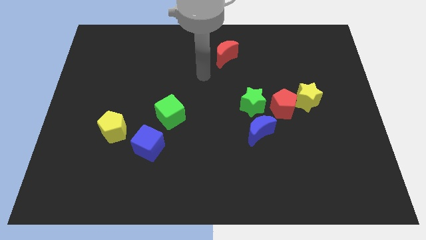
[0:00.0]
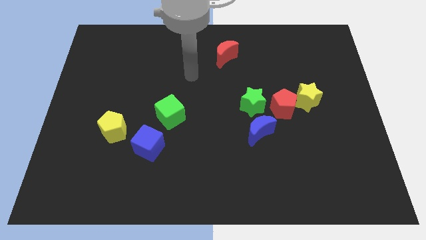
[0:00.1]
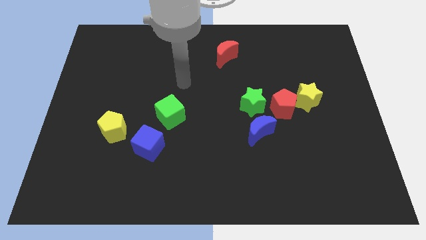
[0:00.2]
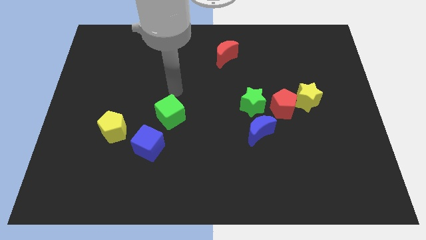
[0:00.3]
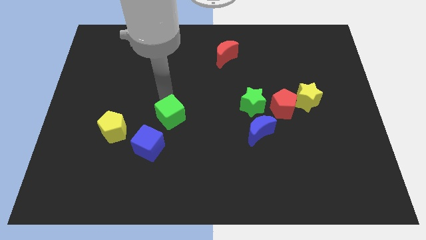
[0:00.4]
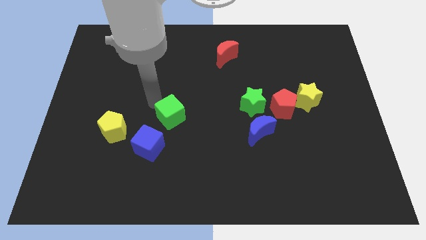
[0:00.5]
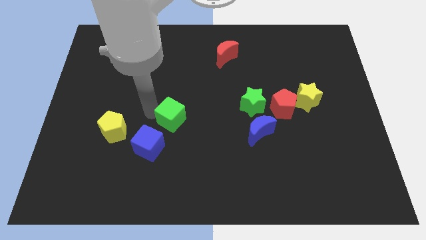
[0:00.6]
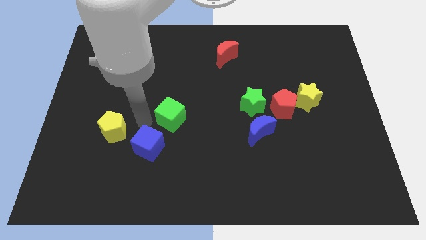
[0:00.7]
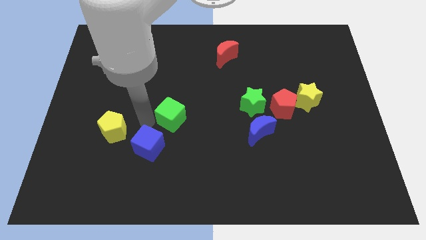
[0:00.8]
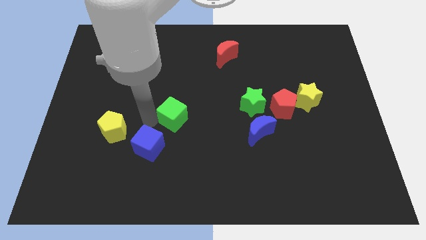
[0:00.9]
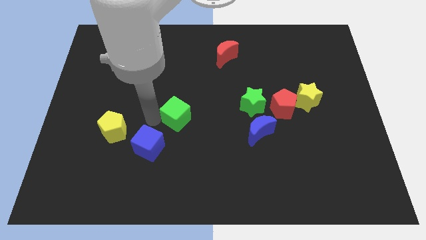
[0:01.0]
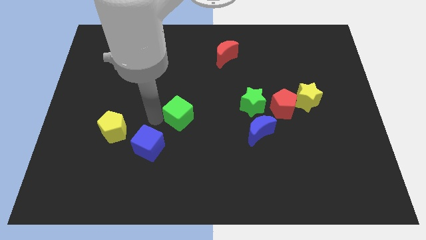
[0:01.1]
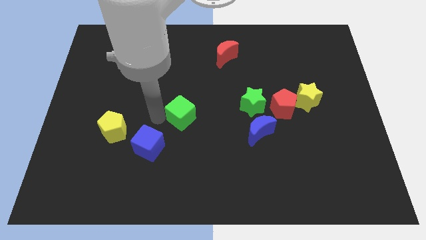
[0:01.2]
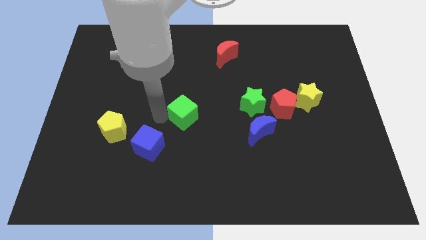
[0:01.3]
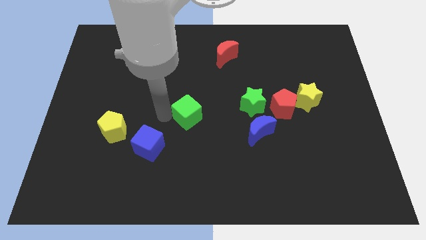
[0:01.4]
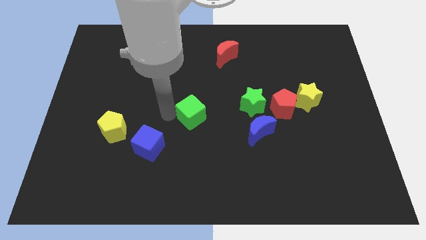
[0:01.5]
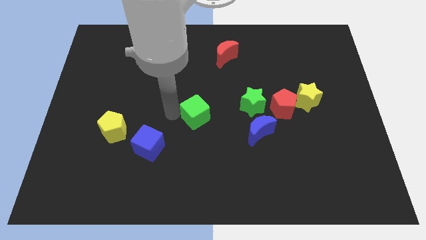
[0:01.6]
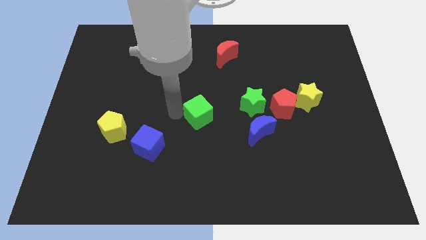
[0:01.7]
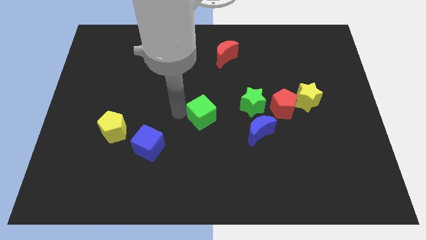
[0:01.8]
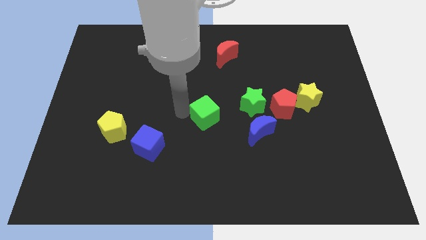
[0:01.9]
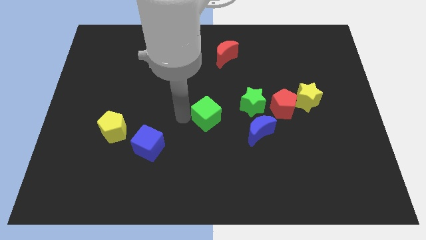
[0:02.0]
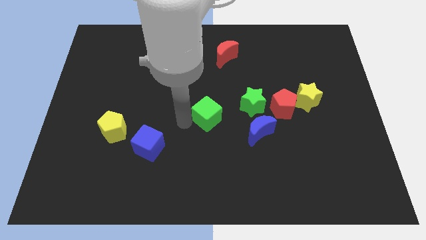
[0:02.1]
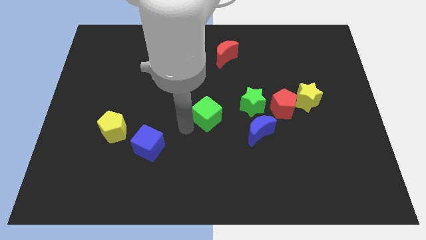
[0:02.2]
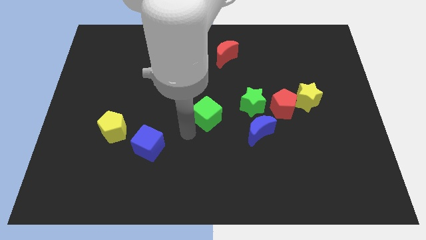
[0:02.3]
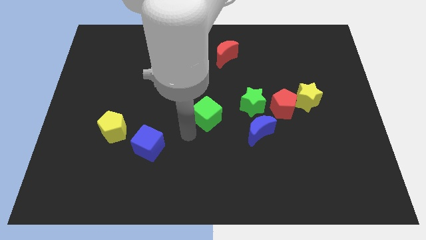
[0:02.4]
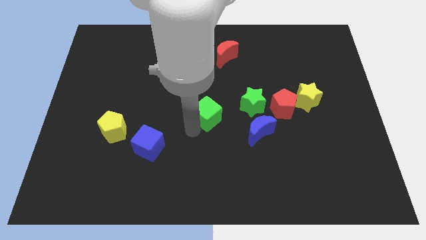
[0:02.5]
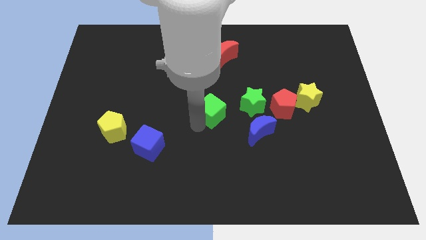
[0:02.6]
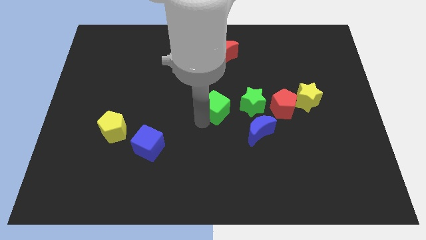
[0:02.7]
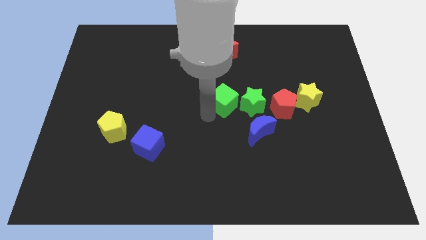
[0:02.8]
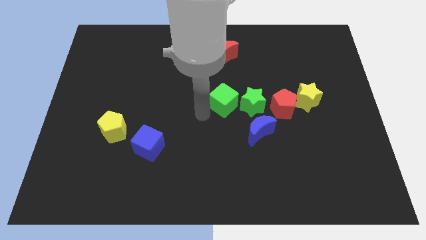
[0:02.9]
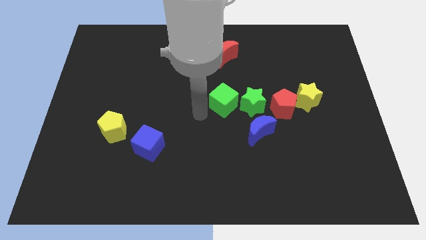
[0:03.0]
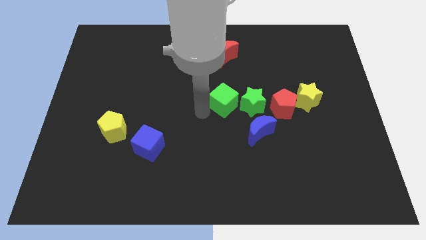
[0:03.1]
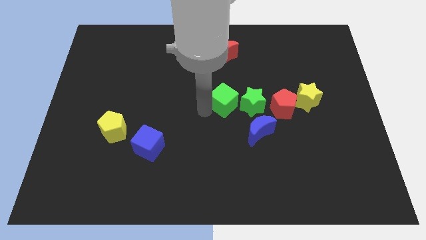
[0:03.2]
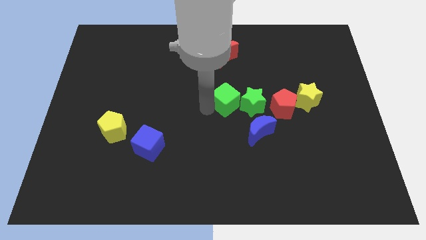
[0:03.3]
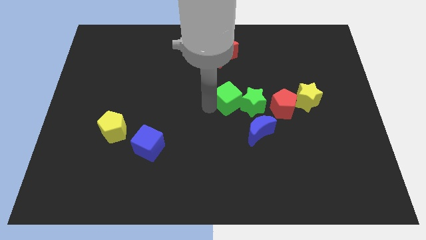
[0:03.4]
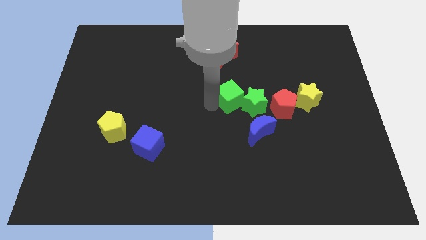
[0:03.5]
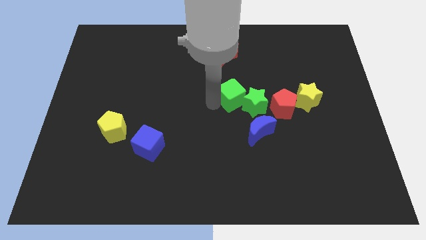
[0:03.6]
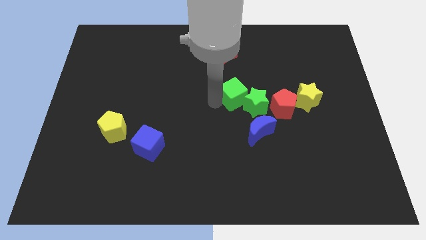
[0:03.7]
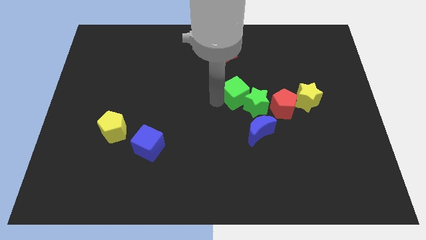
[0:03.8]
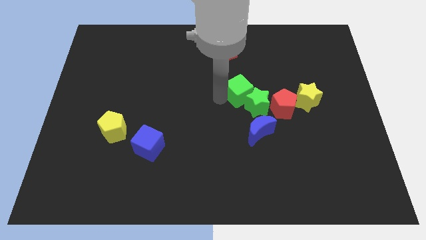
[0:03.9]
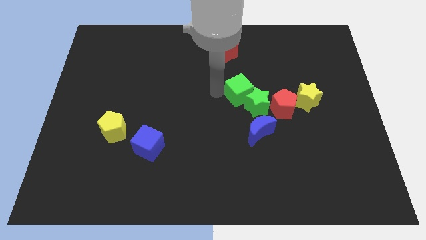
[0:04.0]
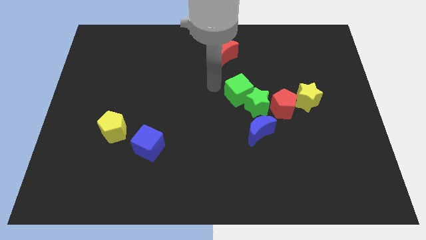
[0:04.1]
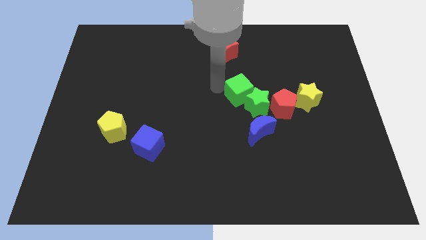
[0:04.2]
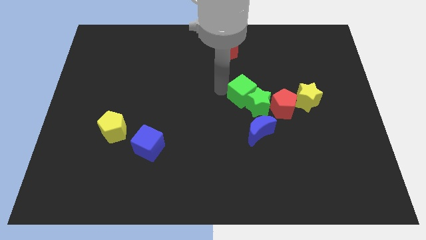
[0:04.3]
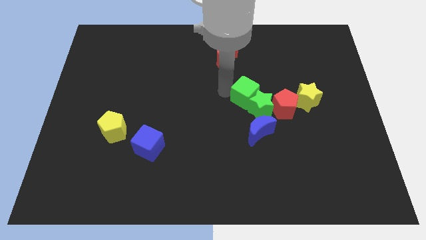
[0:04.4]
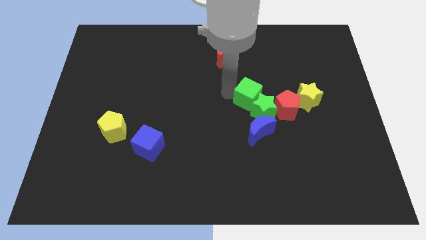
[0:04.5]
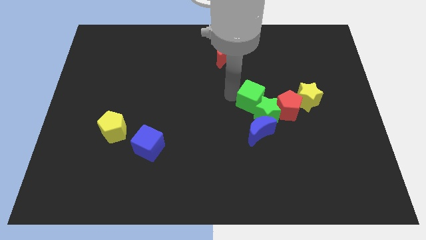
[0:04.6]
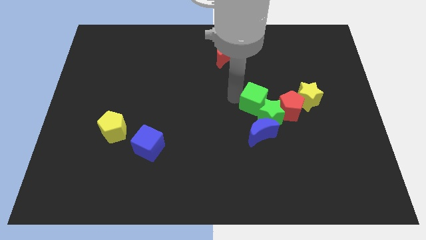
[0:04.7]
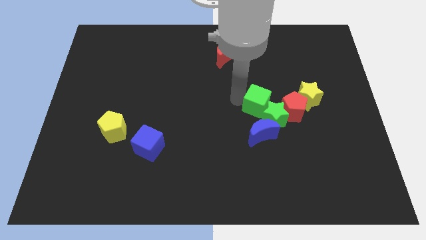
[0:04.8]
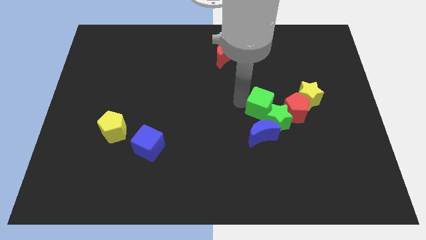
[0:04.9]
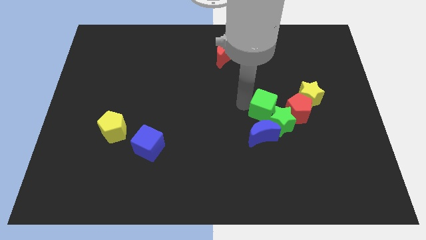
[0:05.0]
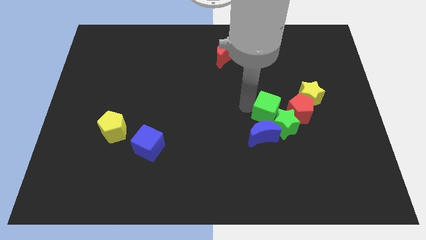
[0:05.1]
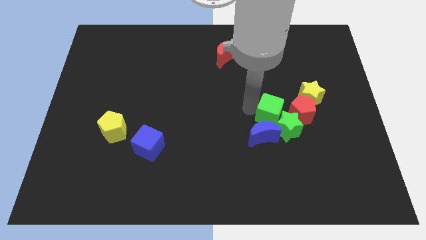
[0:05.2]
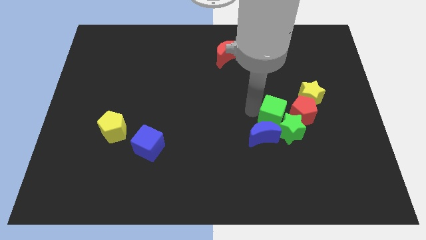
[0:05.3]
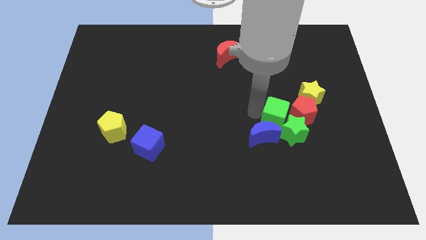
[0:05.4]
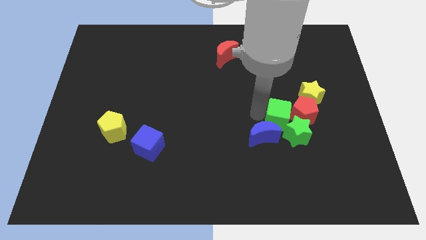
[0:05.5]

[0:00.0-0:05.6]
push the green cube close to the red pentagon

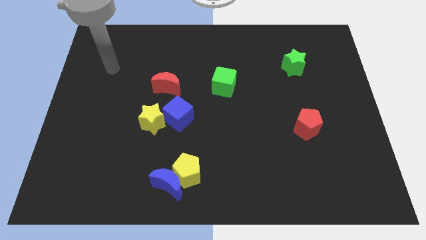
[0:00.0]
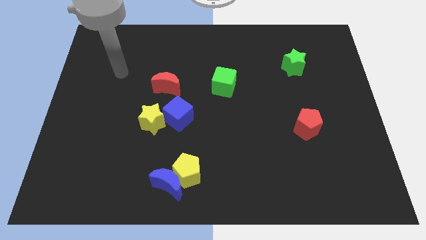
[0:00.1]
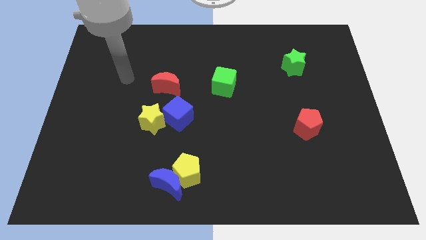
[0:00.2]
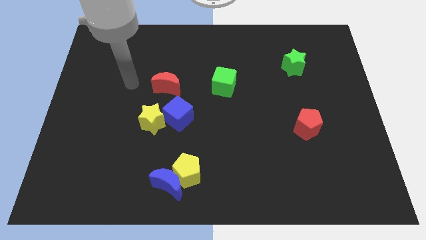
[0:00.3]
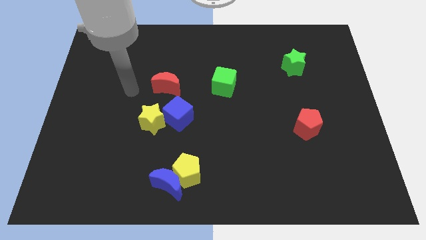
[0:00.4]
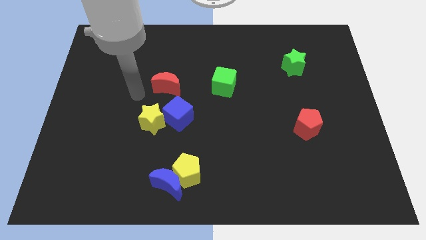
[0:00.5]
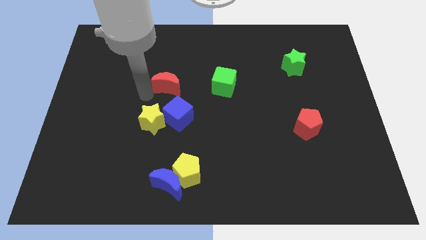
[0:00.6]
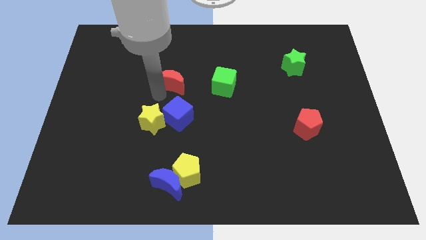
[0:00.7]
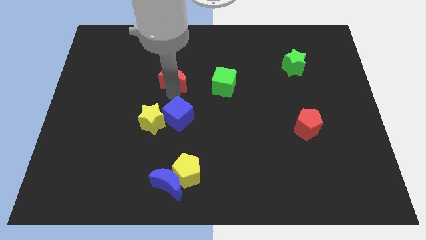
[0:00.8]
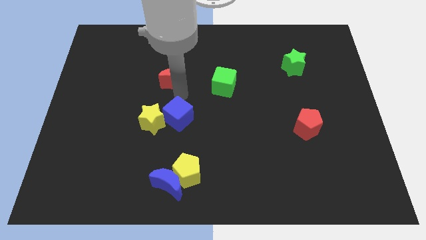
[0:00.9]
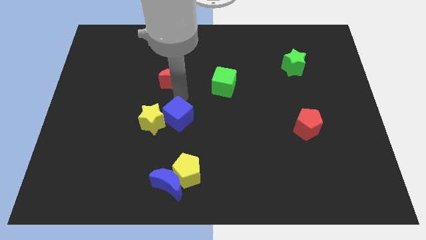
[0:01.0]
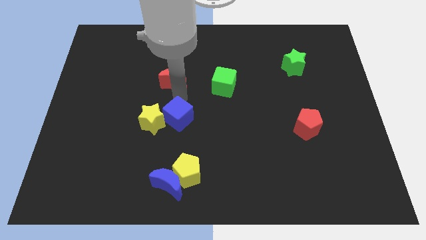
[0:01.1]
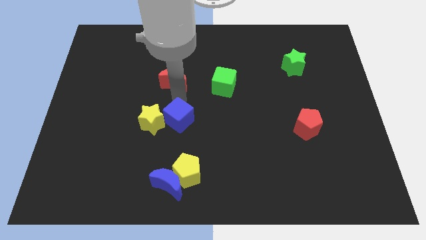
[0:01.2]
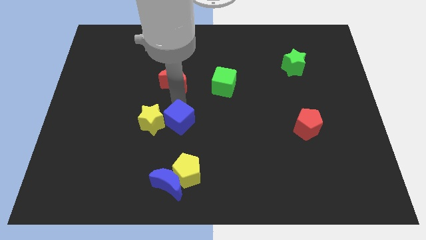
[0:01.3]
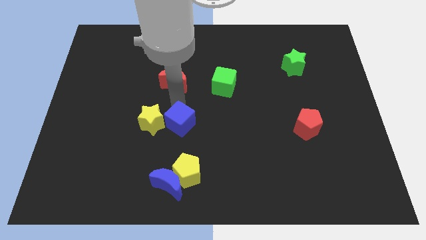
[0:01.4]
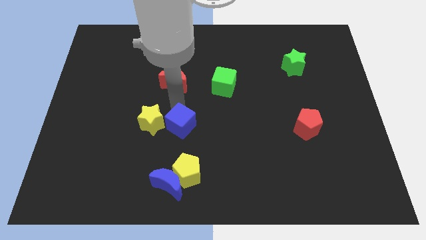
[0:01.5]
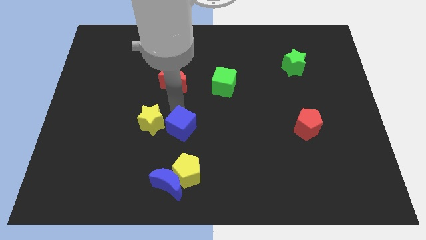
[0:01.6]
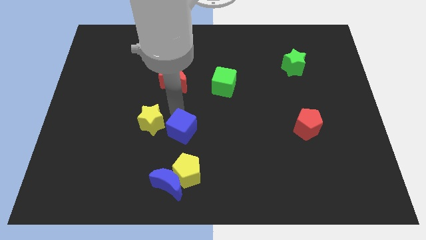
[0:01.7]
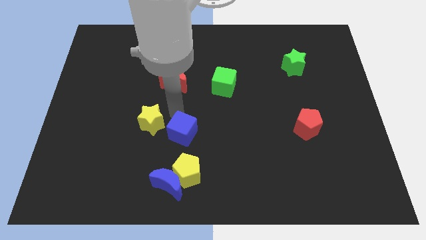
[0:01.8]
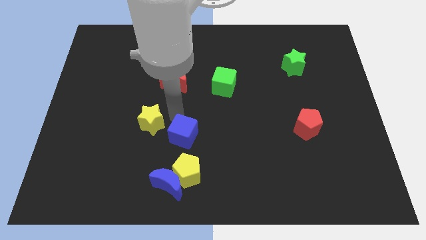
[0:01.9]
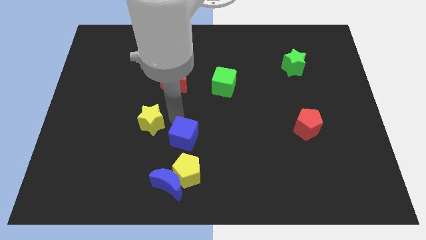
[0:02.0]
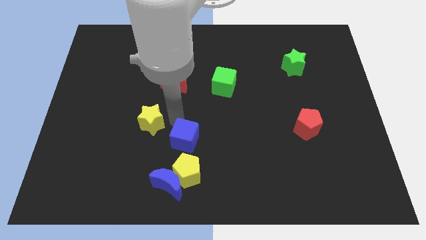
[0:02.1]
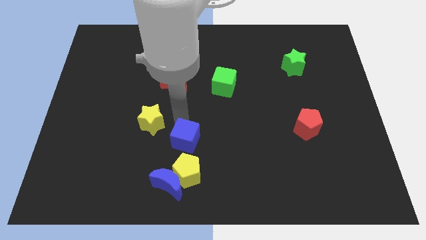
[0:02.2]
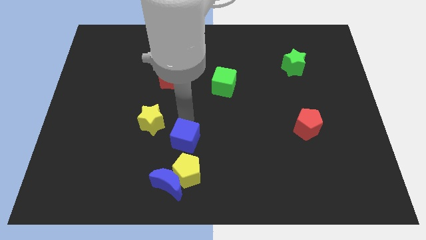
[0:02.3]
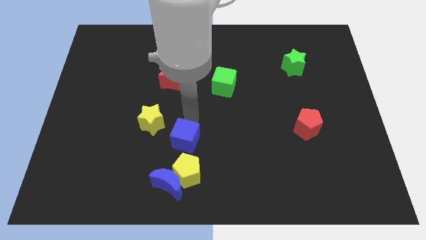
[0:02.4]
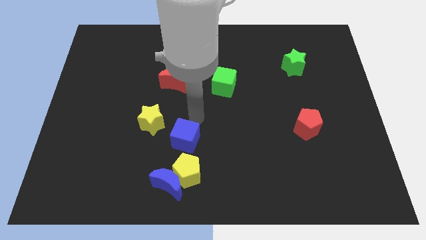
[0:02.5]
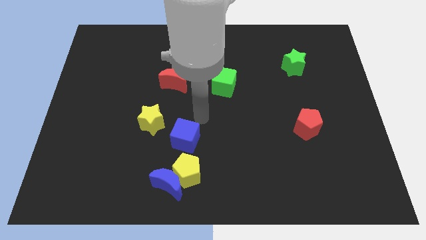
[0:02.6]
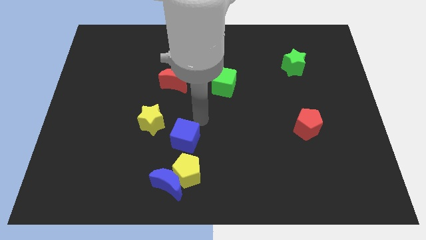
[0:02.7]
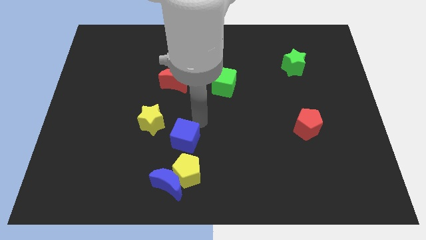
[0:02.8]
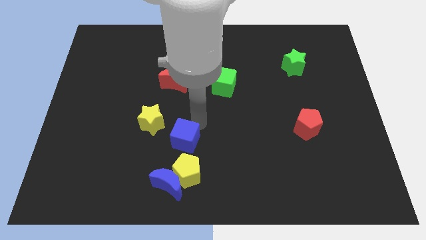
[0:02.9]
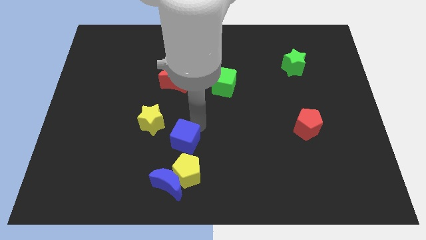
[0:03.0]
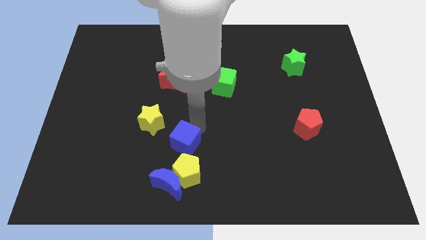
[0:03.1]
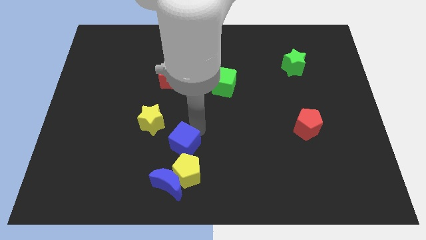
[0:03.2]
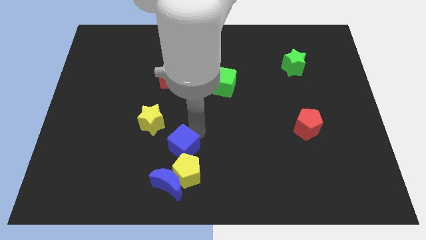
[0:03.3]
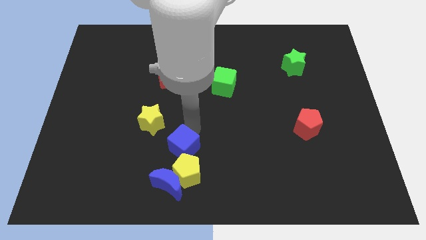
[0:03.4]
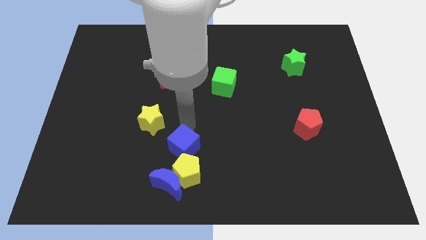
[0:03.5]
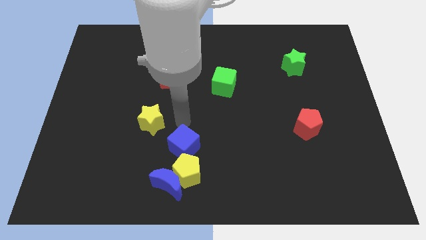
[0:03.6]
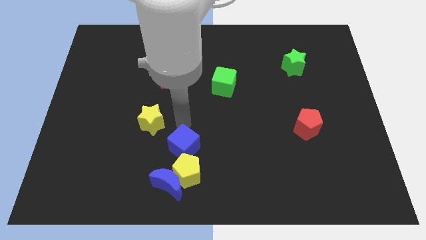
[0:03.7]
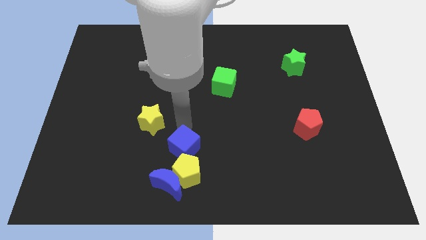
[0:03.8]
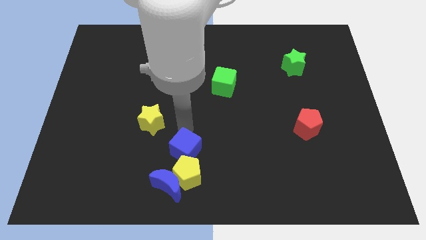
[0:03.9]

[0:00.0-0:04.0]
push the blue cube close to the yellow pentagon
